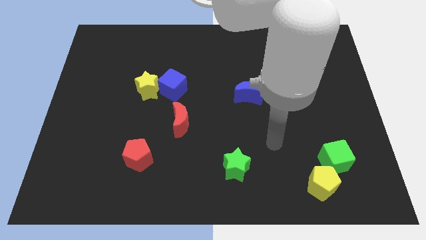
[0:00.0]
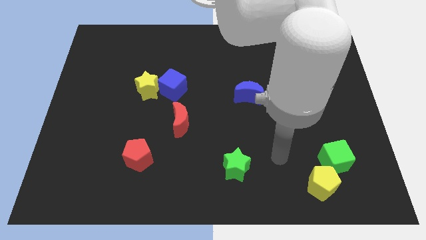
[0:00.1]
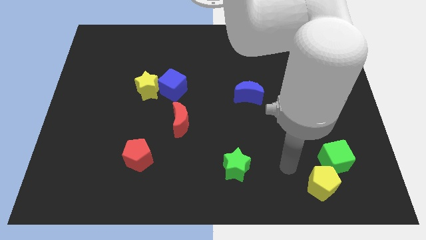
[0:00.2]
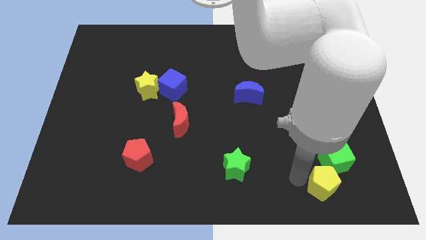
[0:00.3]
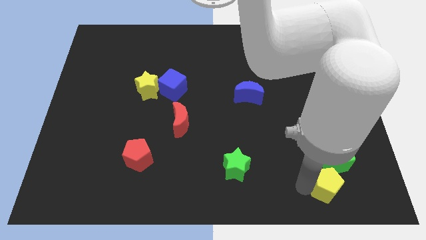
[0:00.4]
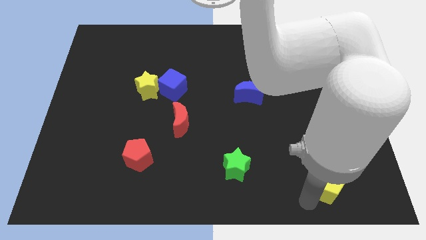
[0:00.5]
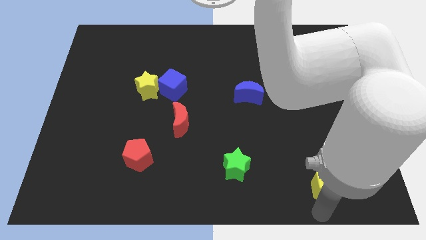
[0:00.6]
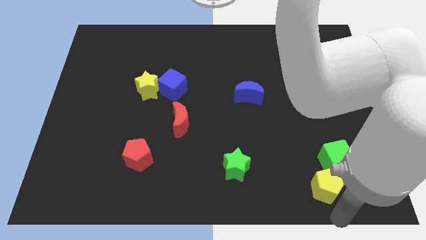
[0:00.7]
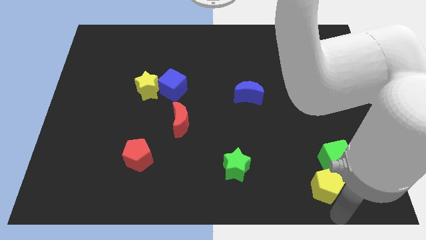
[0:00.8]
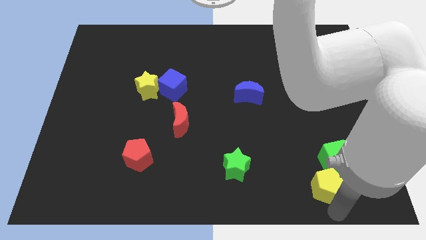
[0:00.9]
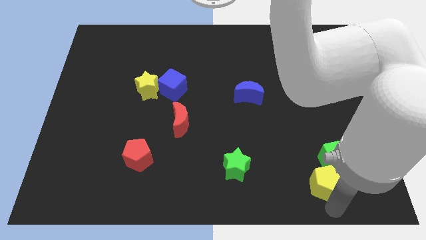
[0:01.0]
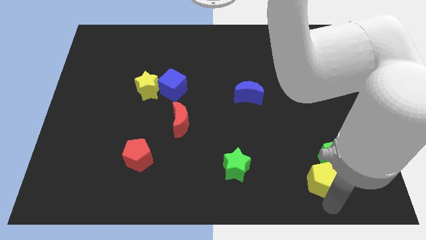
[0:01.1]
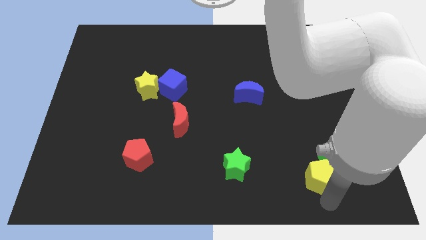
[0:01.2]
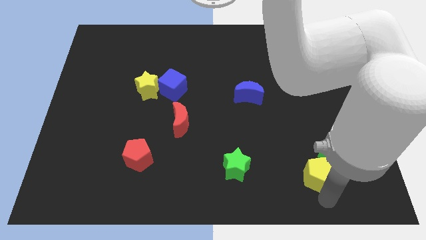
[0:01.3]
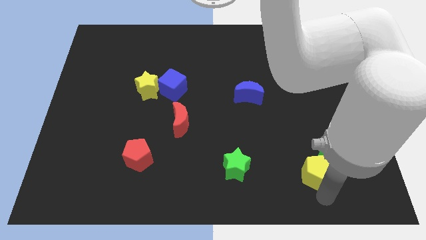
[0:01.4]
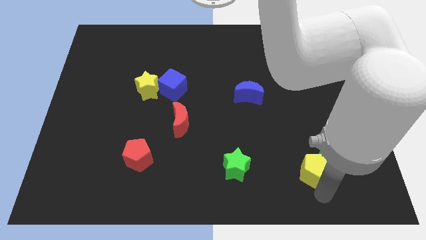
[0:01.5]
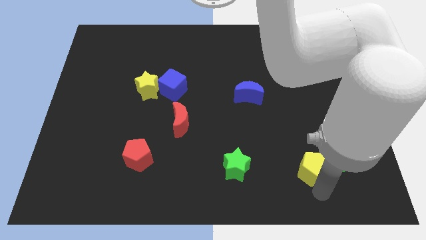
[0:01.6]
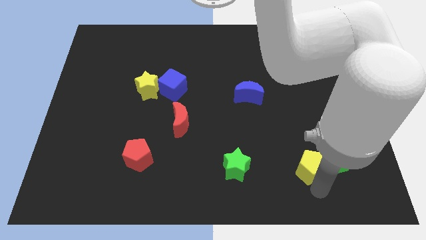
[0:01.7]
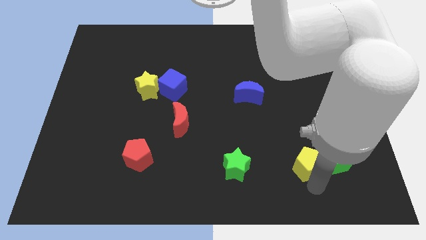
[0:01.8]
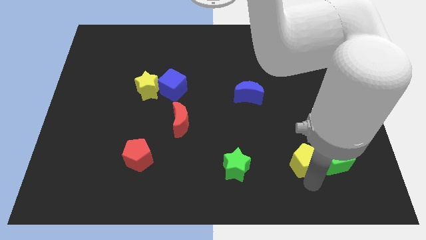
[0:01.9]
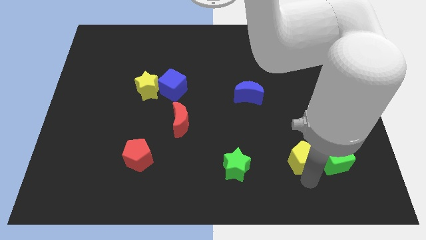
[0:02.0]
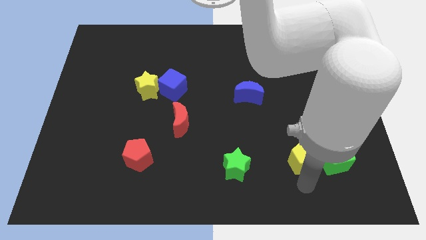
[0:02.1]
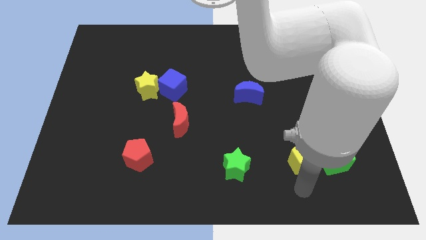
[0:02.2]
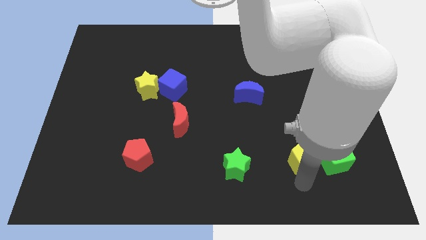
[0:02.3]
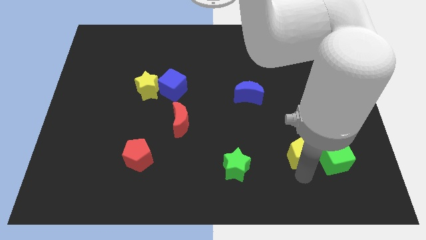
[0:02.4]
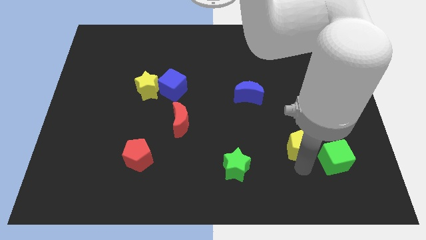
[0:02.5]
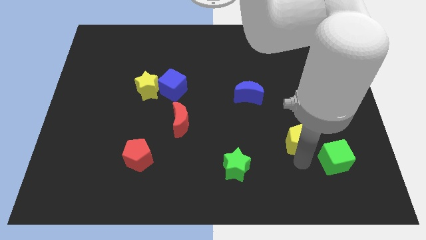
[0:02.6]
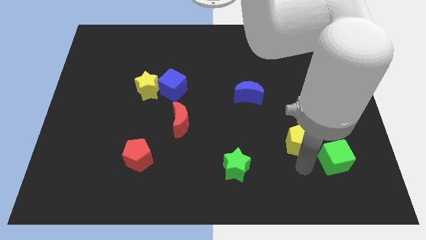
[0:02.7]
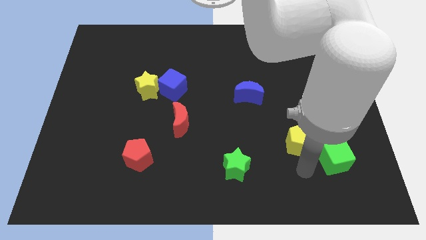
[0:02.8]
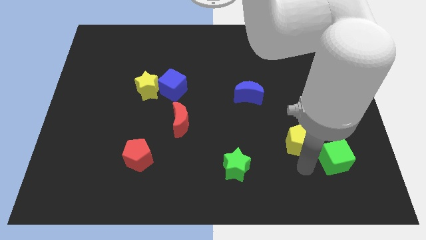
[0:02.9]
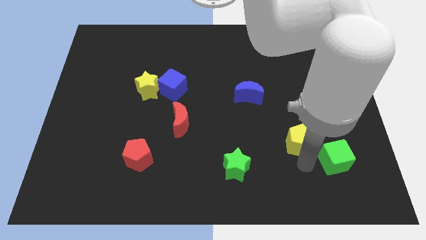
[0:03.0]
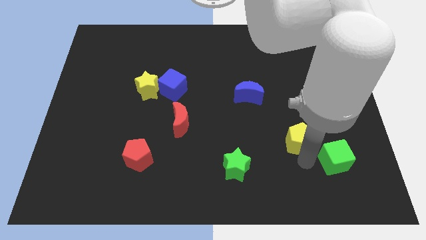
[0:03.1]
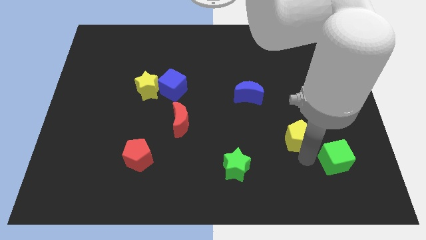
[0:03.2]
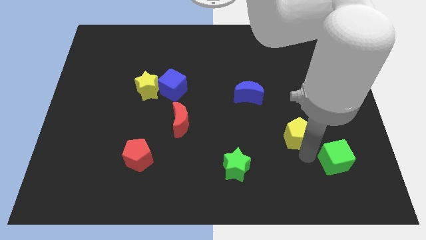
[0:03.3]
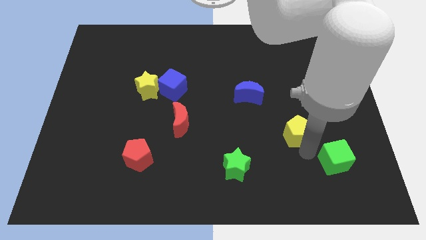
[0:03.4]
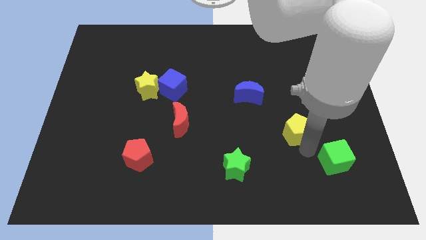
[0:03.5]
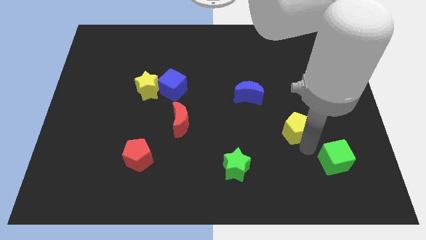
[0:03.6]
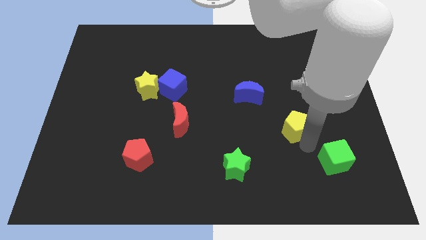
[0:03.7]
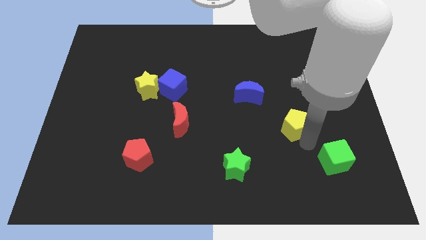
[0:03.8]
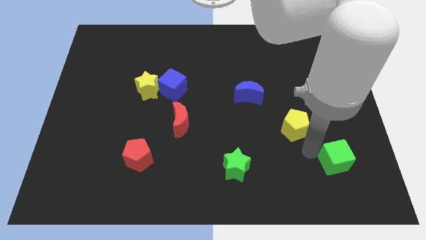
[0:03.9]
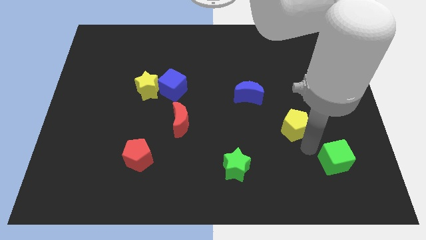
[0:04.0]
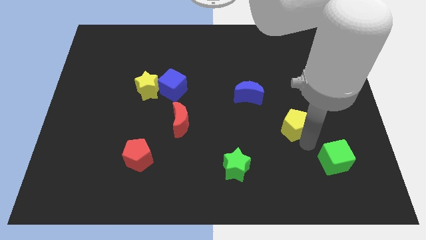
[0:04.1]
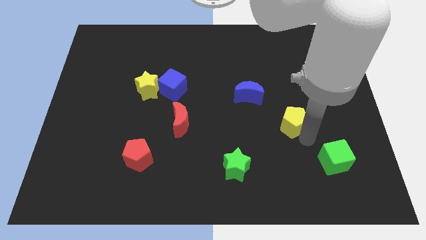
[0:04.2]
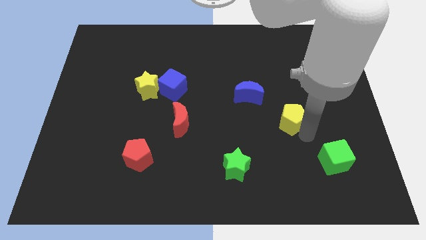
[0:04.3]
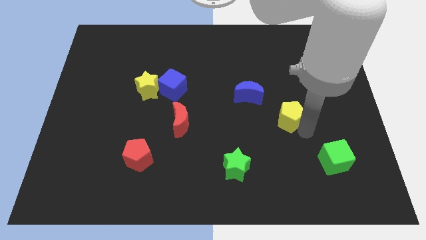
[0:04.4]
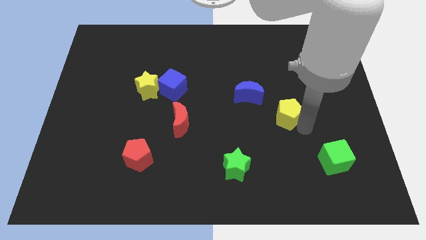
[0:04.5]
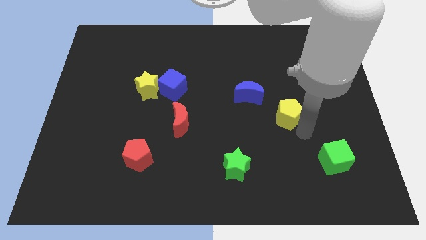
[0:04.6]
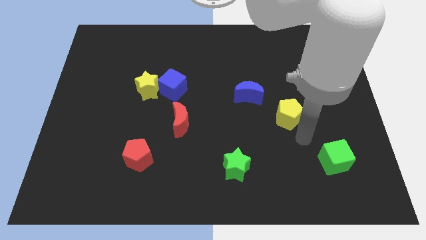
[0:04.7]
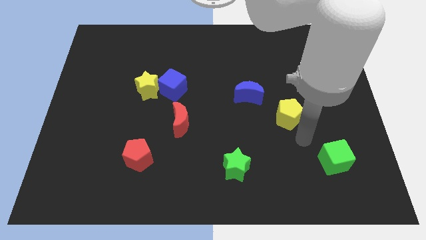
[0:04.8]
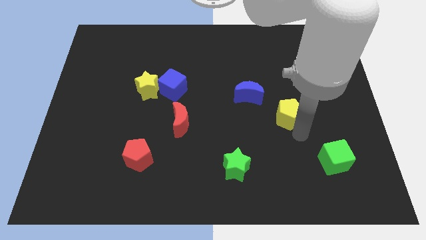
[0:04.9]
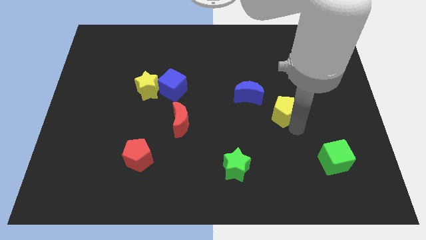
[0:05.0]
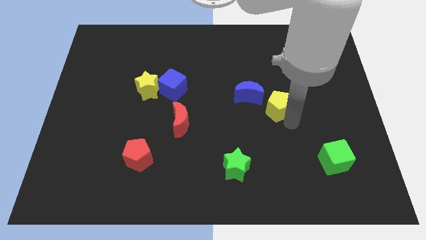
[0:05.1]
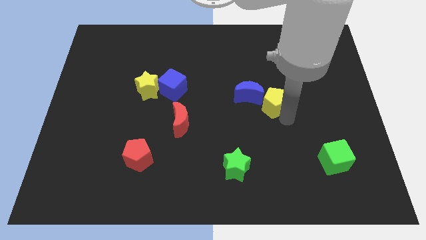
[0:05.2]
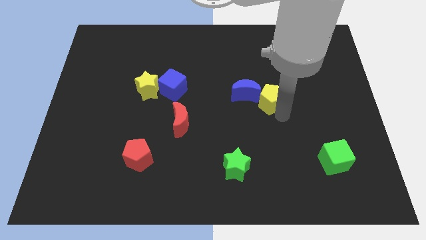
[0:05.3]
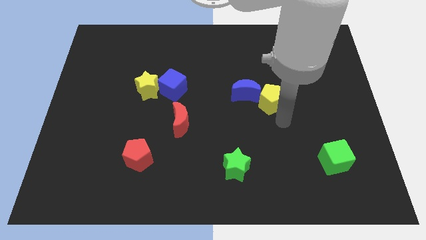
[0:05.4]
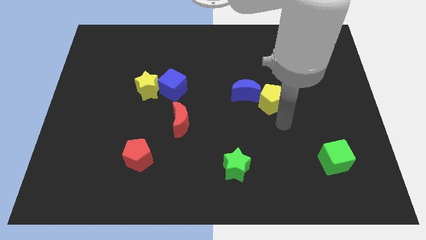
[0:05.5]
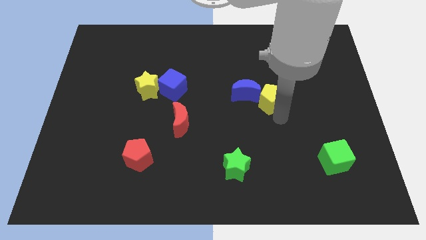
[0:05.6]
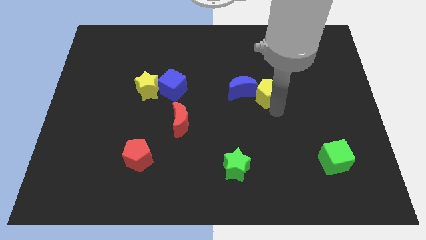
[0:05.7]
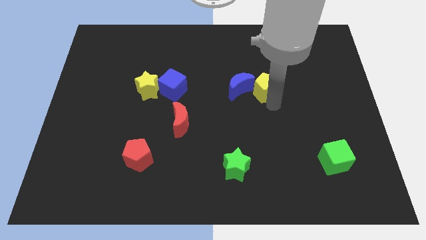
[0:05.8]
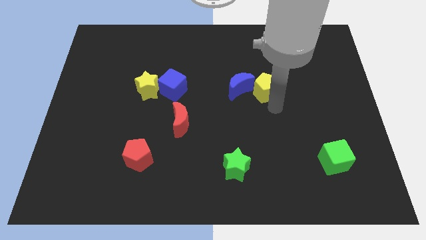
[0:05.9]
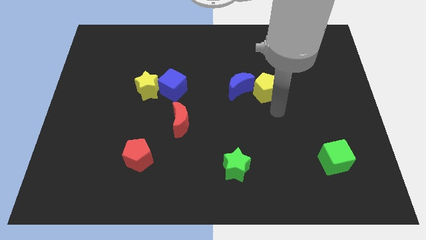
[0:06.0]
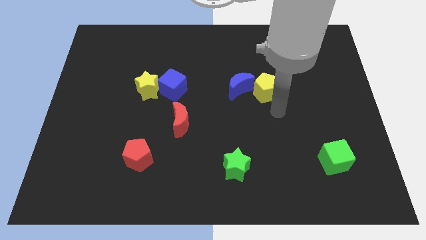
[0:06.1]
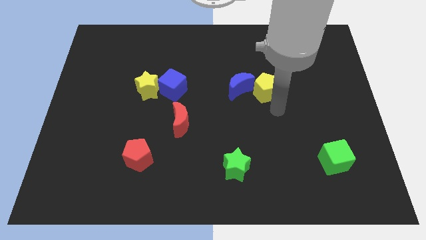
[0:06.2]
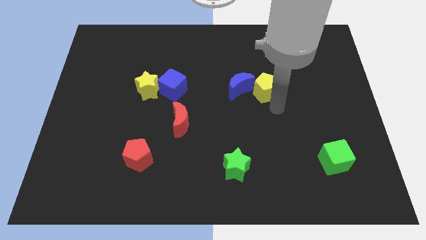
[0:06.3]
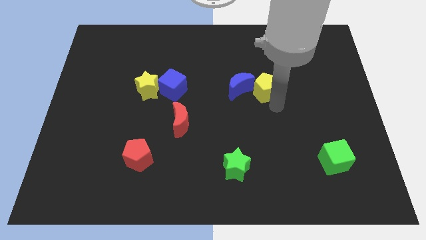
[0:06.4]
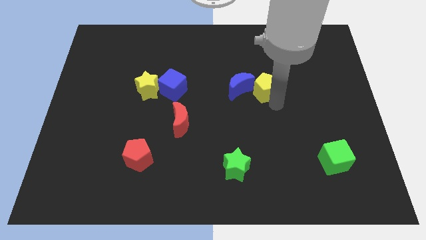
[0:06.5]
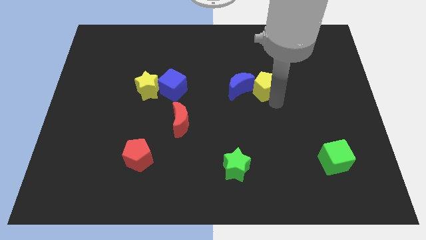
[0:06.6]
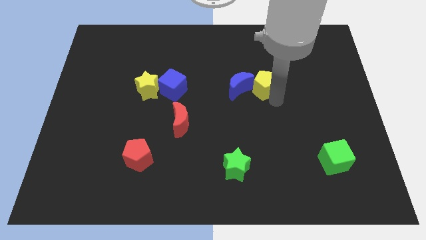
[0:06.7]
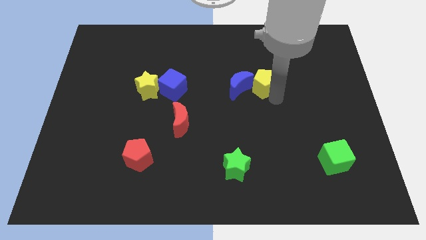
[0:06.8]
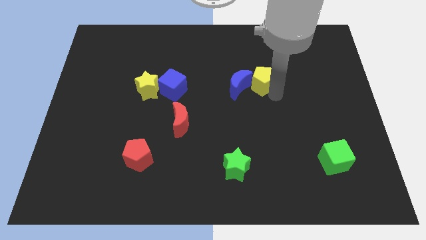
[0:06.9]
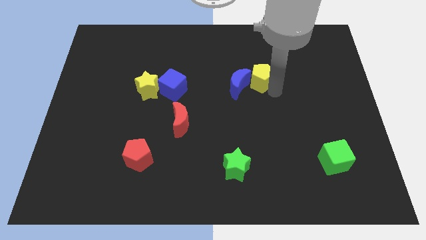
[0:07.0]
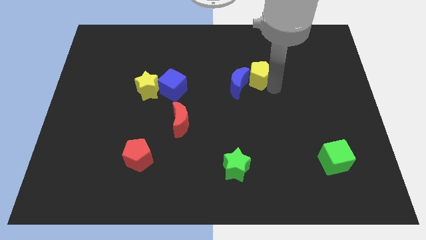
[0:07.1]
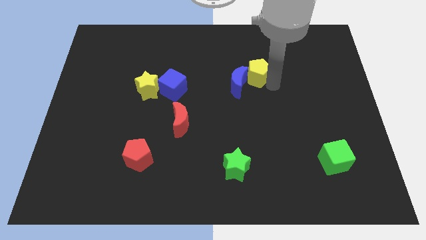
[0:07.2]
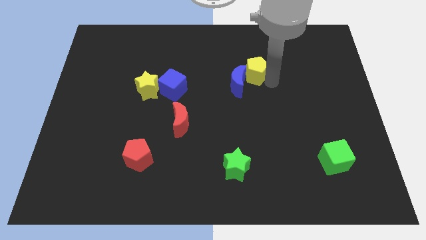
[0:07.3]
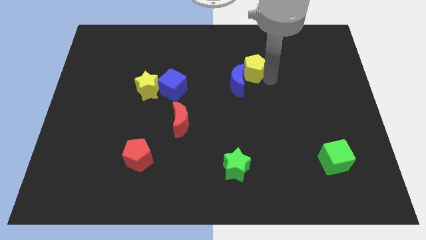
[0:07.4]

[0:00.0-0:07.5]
push the yellow pentagon above the blue moon

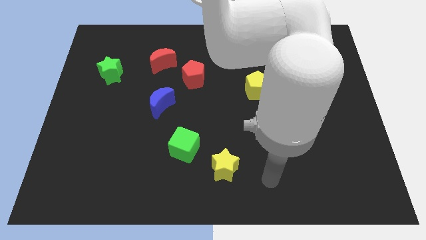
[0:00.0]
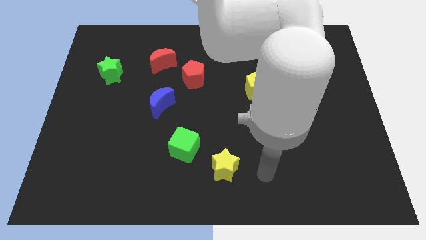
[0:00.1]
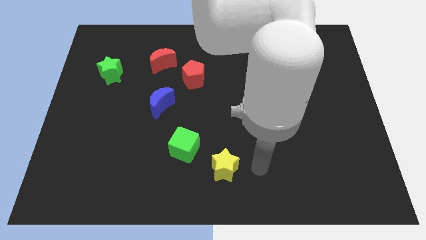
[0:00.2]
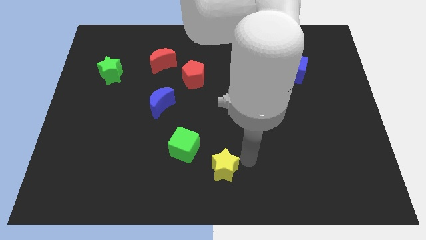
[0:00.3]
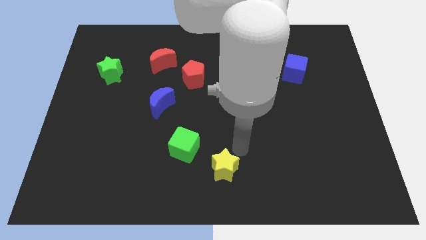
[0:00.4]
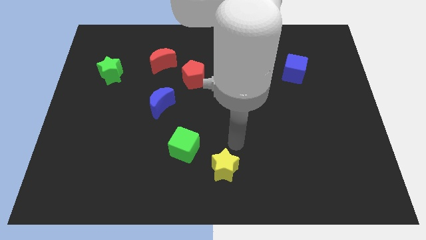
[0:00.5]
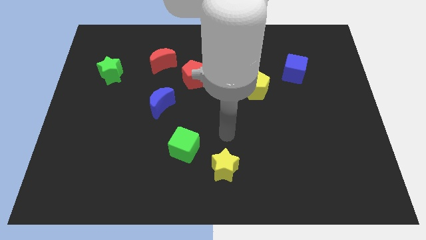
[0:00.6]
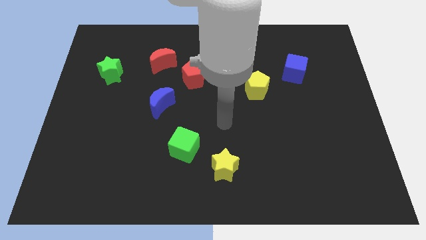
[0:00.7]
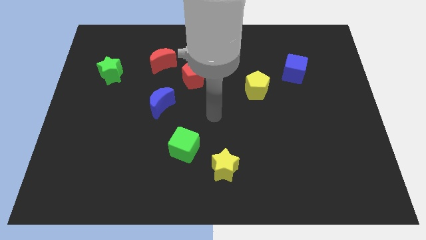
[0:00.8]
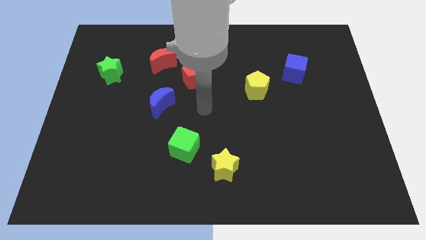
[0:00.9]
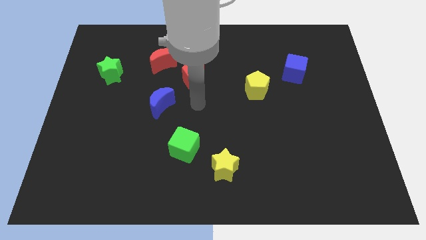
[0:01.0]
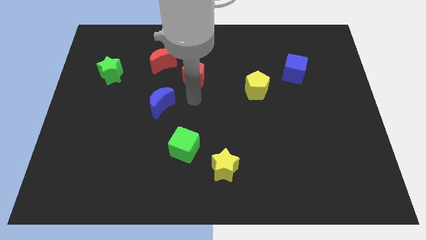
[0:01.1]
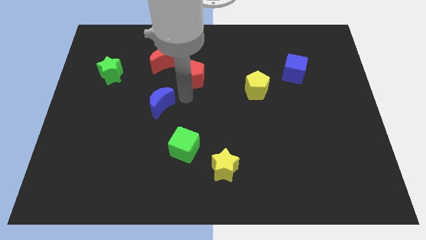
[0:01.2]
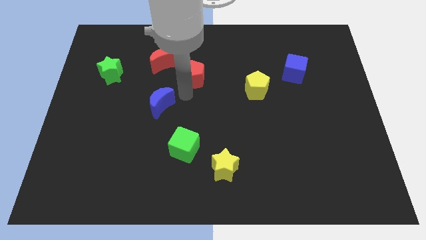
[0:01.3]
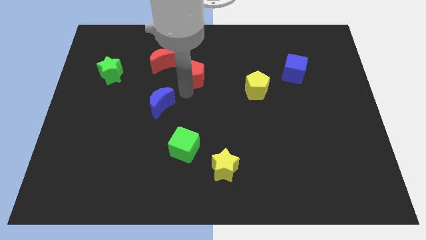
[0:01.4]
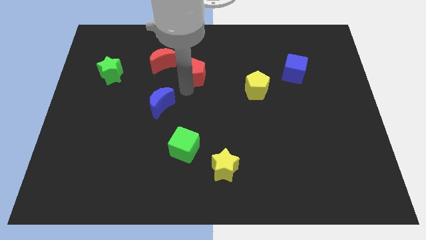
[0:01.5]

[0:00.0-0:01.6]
put the red pentagon to the right of the red moon
